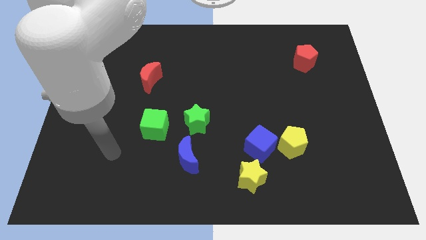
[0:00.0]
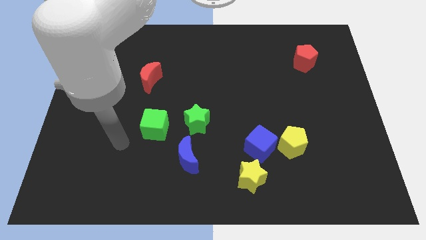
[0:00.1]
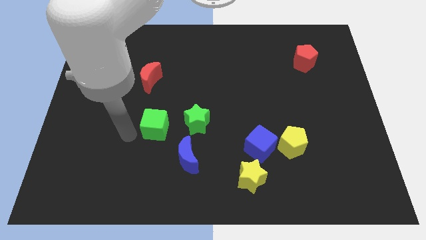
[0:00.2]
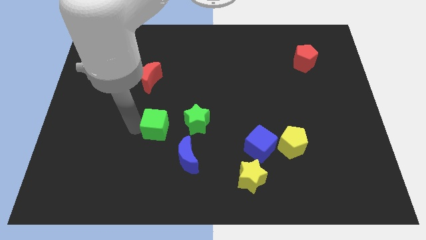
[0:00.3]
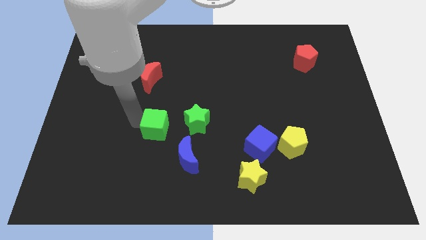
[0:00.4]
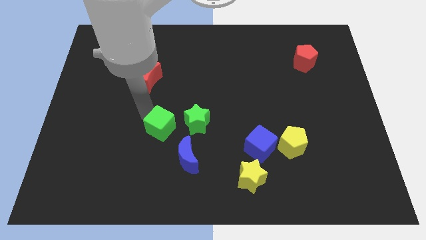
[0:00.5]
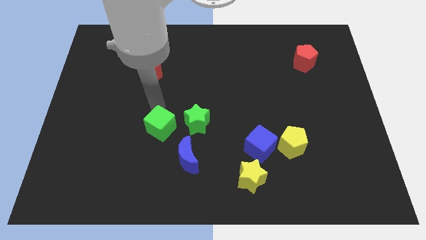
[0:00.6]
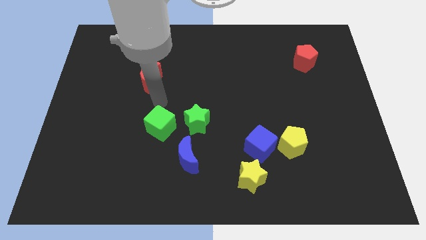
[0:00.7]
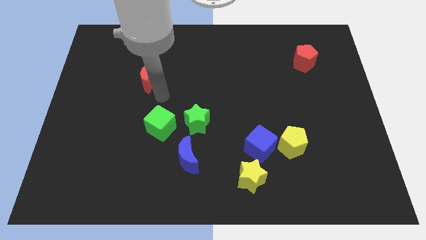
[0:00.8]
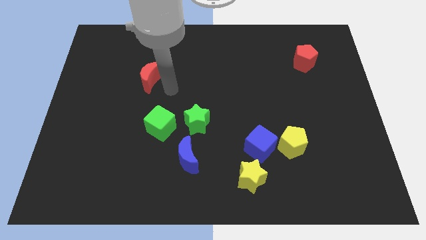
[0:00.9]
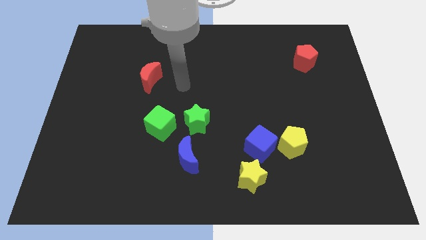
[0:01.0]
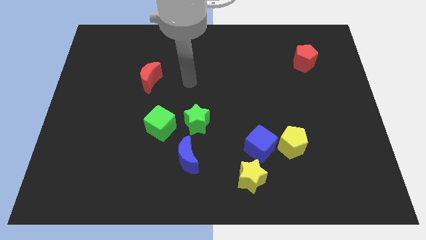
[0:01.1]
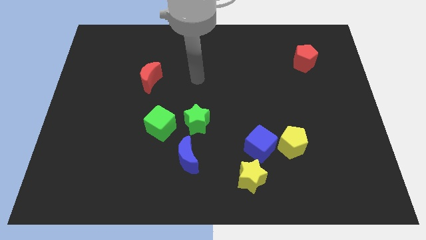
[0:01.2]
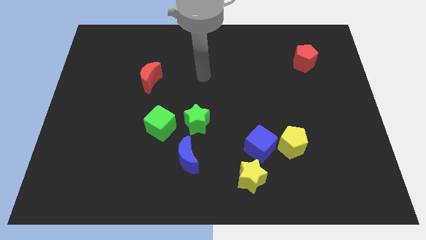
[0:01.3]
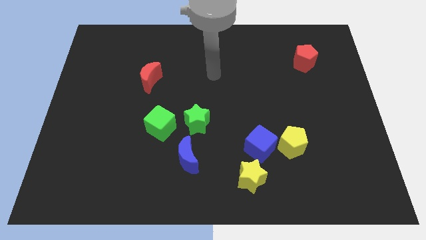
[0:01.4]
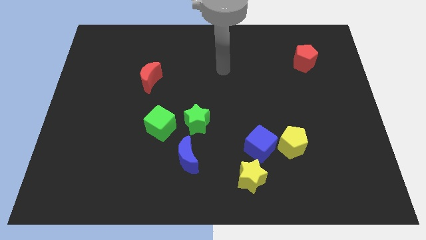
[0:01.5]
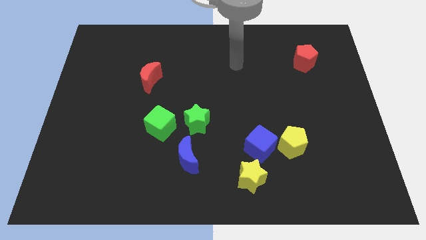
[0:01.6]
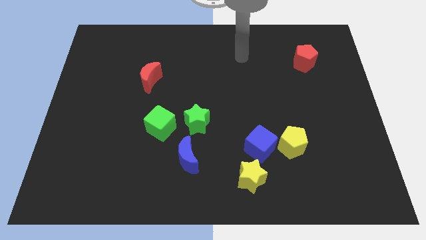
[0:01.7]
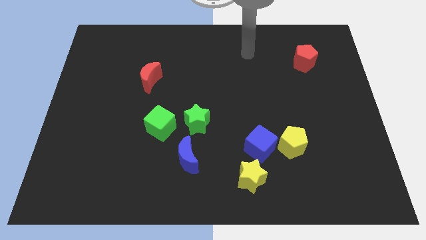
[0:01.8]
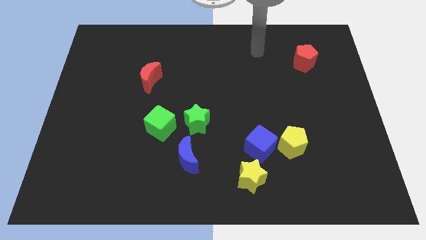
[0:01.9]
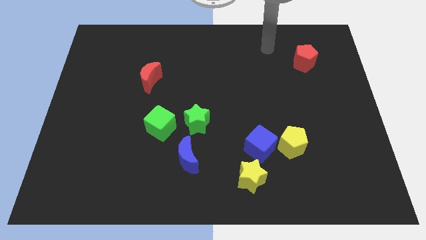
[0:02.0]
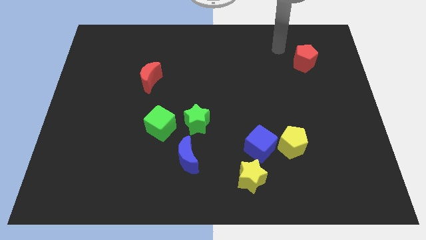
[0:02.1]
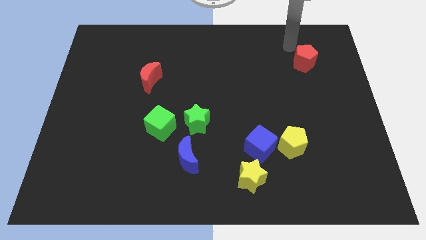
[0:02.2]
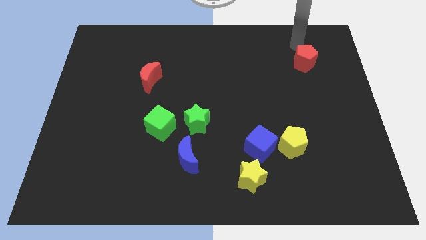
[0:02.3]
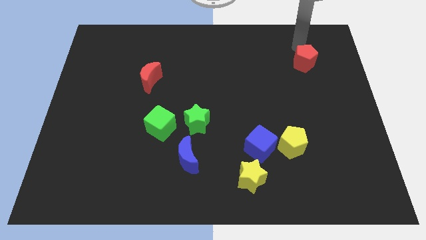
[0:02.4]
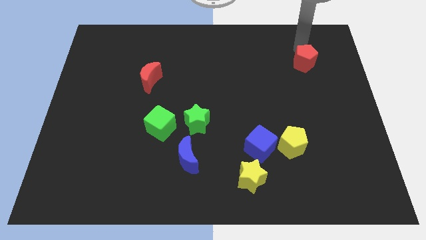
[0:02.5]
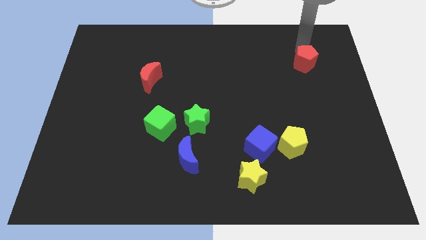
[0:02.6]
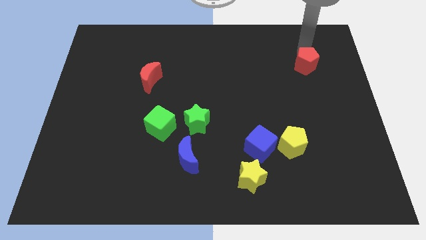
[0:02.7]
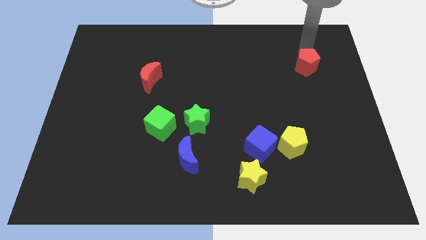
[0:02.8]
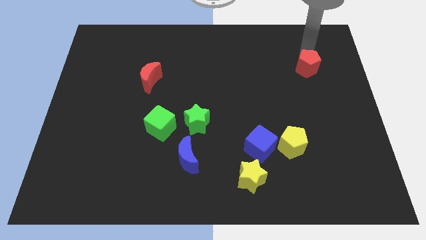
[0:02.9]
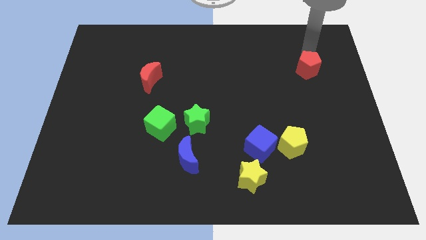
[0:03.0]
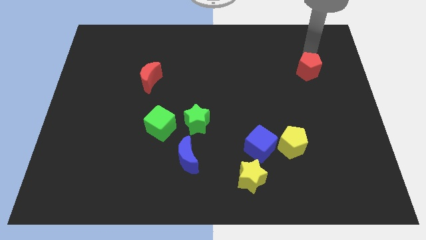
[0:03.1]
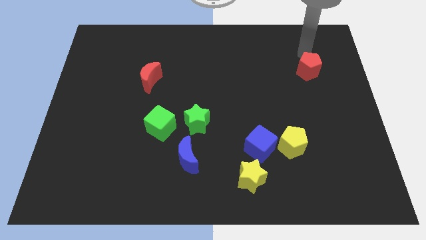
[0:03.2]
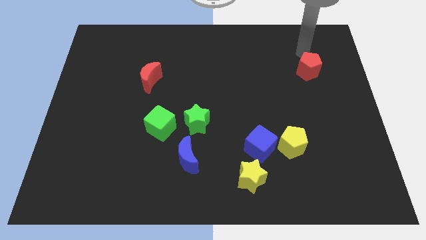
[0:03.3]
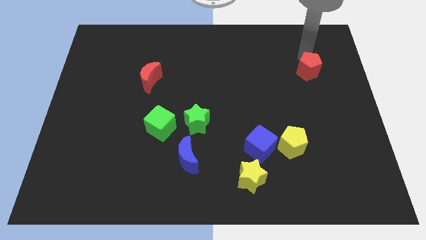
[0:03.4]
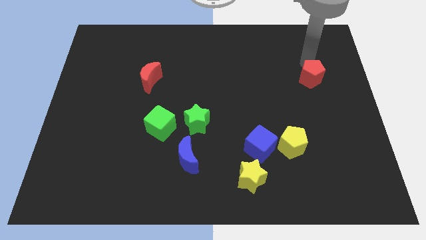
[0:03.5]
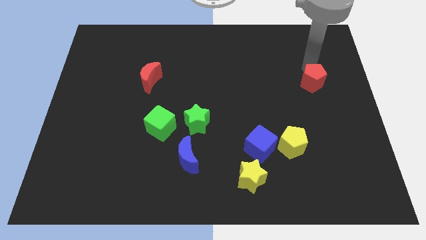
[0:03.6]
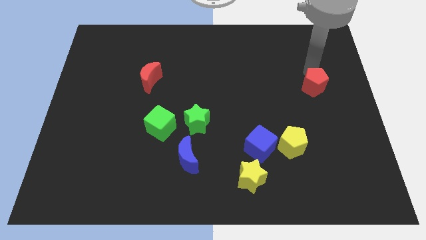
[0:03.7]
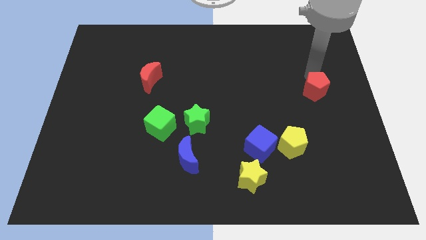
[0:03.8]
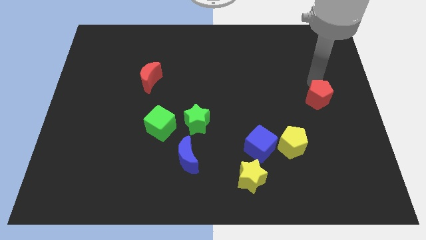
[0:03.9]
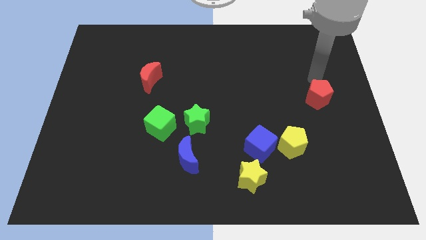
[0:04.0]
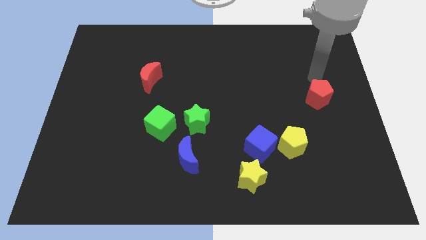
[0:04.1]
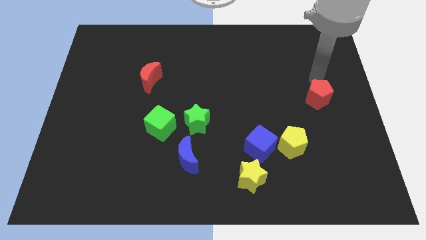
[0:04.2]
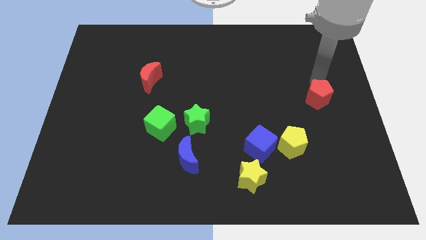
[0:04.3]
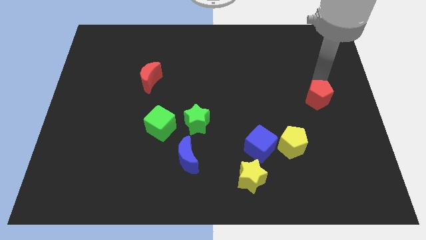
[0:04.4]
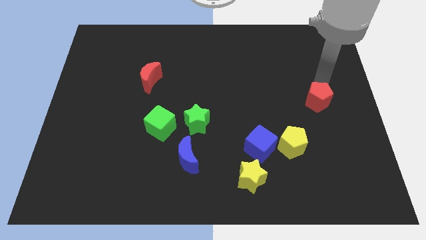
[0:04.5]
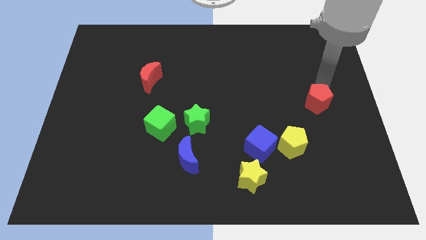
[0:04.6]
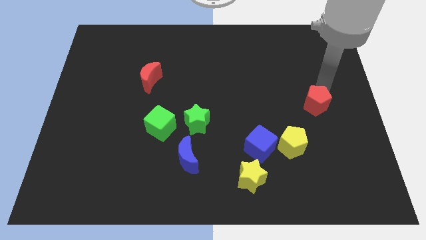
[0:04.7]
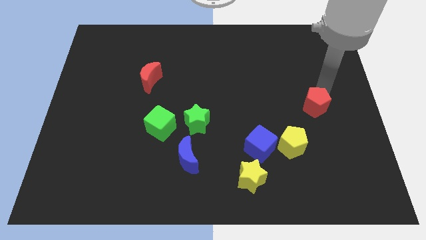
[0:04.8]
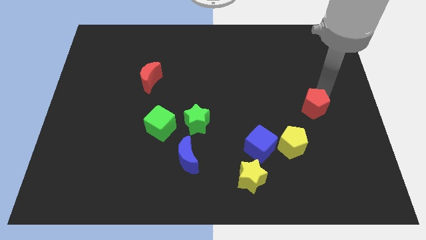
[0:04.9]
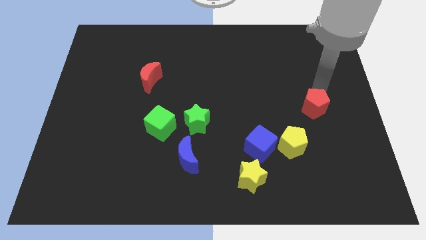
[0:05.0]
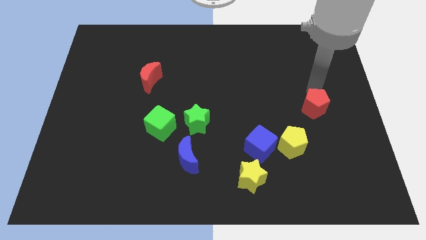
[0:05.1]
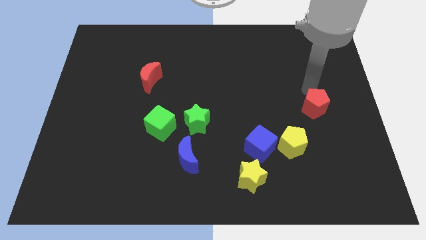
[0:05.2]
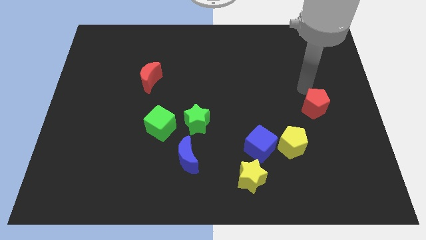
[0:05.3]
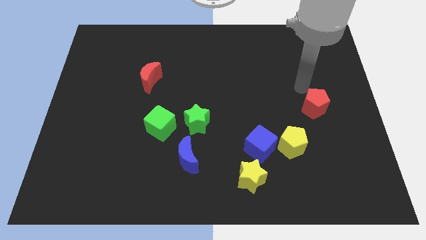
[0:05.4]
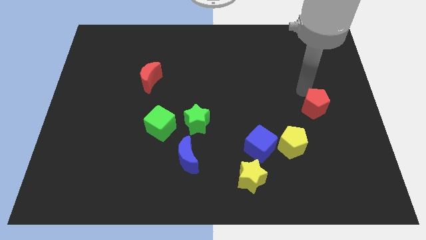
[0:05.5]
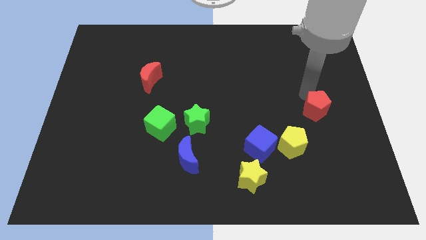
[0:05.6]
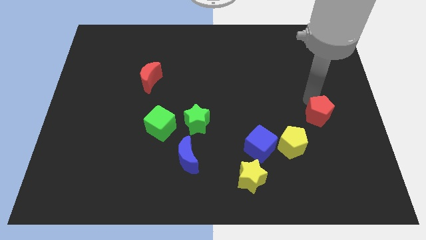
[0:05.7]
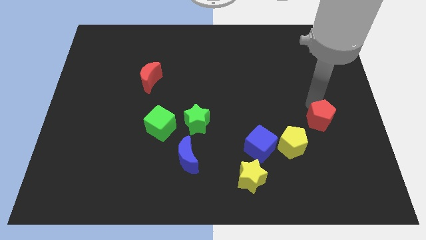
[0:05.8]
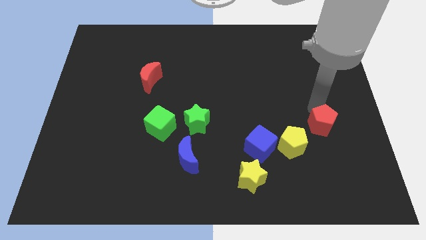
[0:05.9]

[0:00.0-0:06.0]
slide the red pentagon downwards

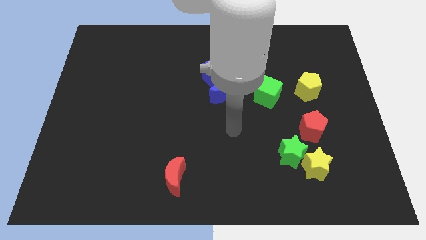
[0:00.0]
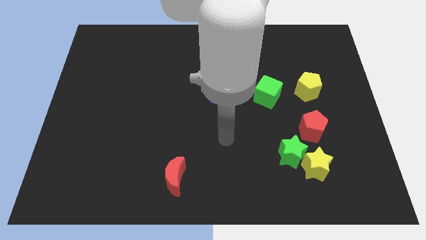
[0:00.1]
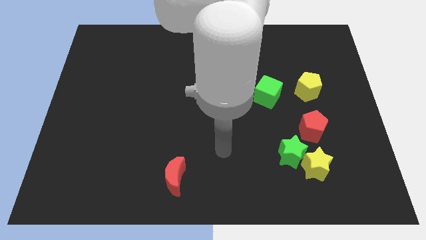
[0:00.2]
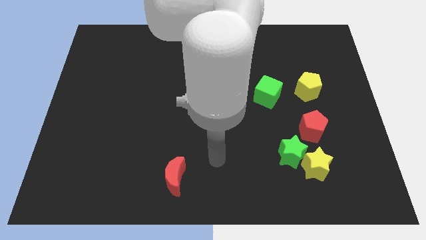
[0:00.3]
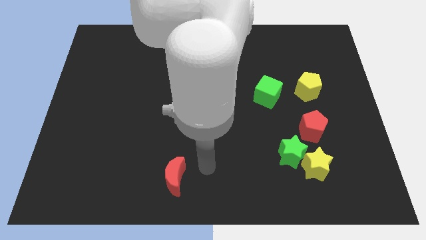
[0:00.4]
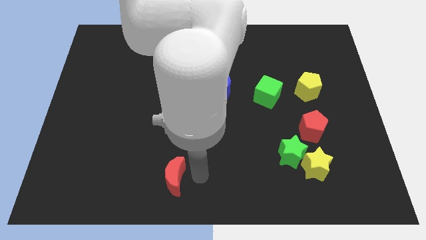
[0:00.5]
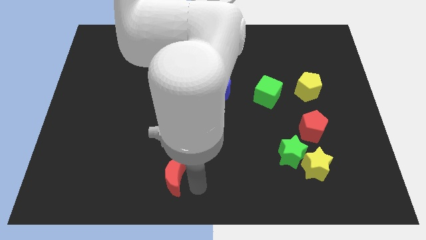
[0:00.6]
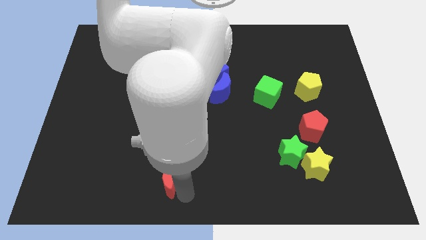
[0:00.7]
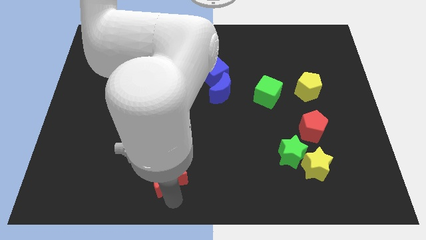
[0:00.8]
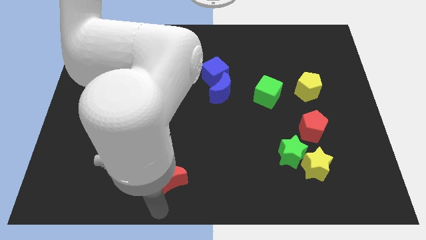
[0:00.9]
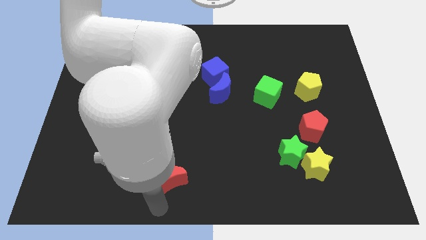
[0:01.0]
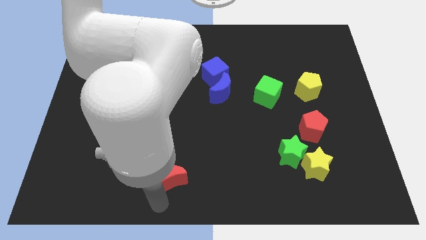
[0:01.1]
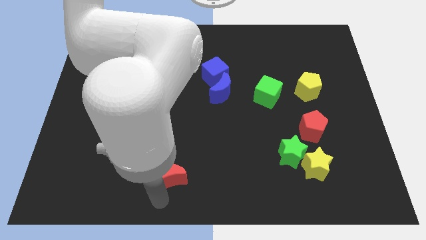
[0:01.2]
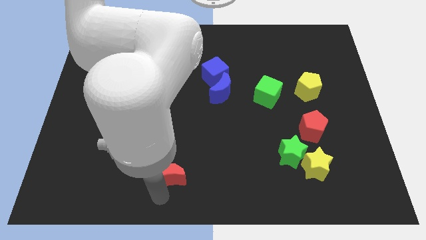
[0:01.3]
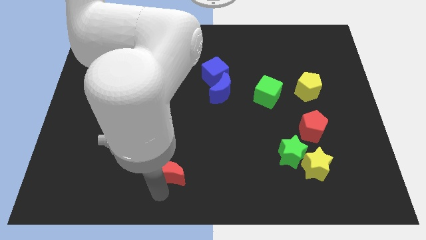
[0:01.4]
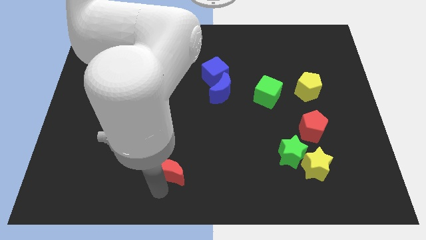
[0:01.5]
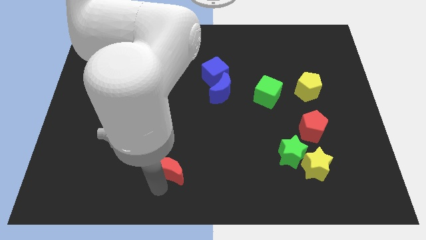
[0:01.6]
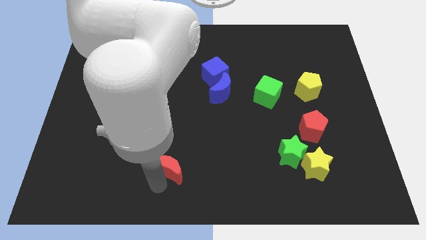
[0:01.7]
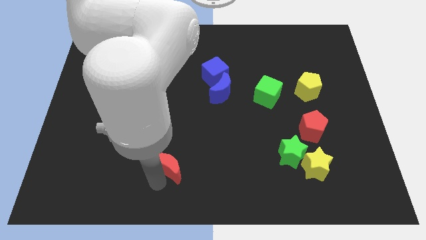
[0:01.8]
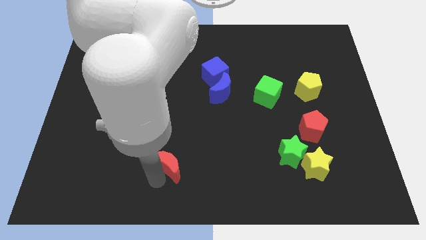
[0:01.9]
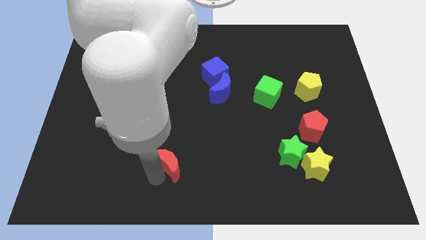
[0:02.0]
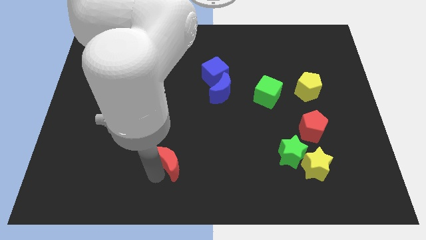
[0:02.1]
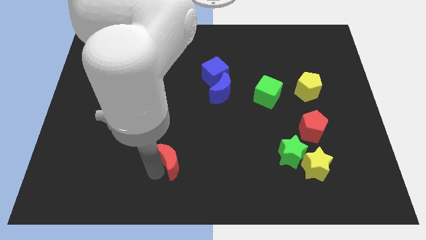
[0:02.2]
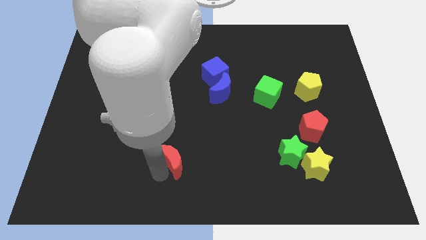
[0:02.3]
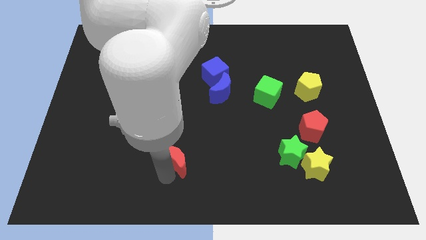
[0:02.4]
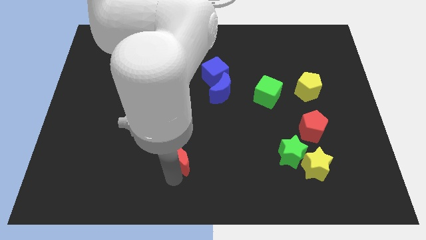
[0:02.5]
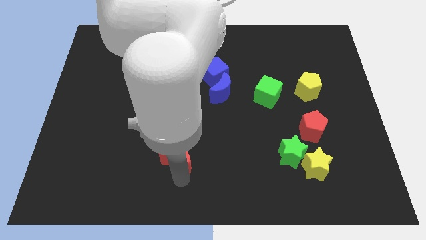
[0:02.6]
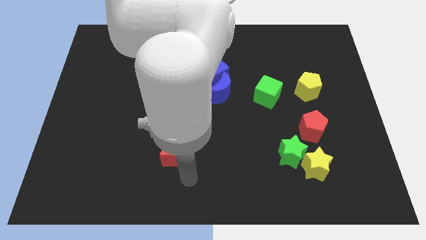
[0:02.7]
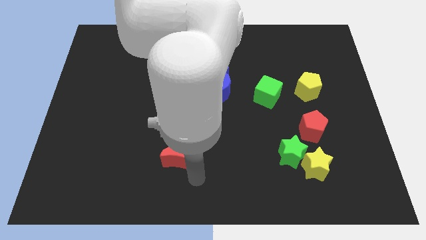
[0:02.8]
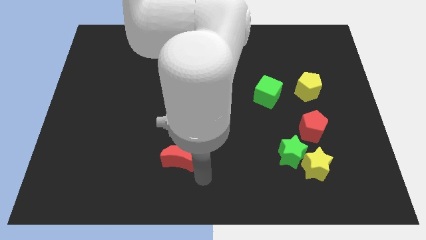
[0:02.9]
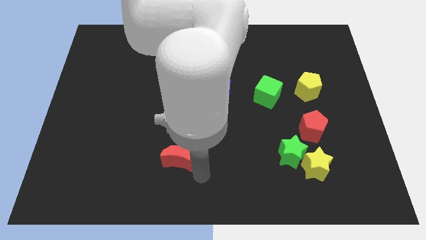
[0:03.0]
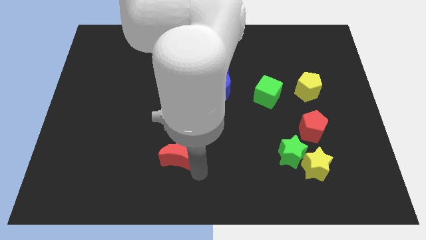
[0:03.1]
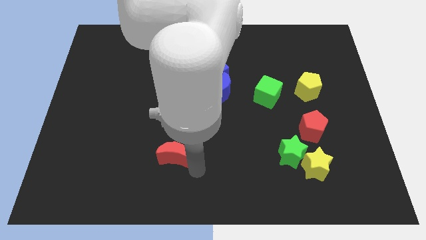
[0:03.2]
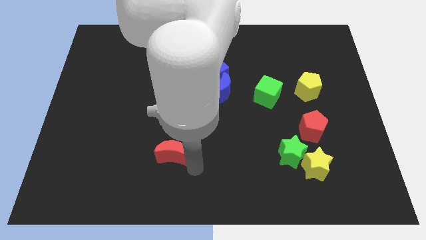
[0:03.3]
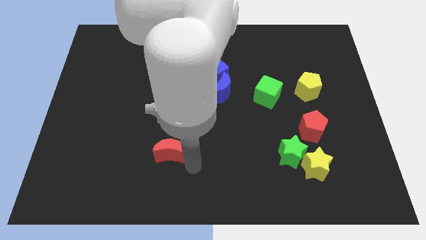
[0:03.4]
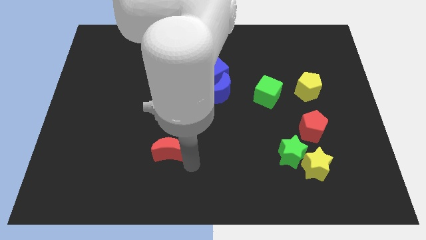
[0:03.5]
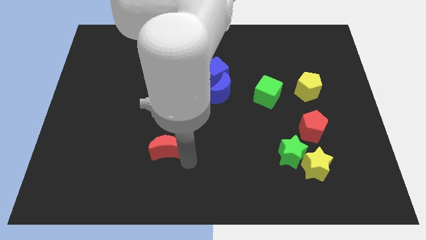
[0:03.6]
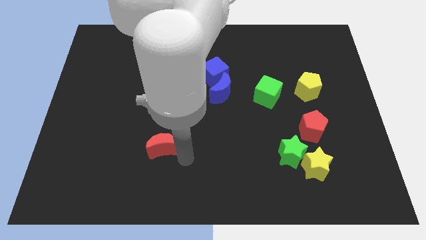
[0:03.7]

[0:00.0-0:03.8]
slightly slide the red moon diagonally up and left
